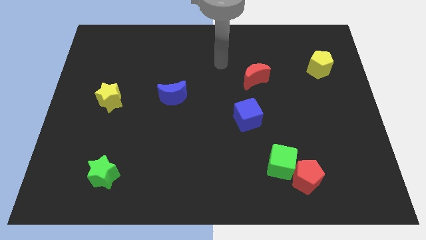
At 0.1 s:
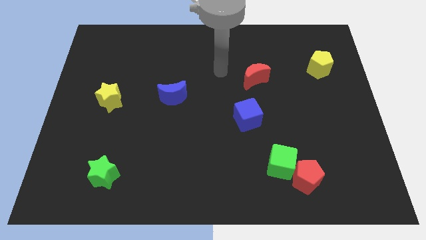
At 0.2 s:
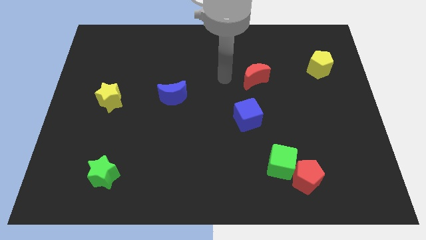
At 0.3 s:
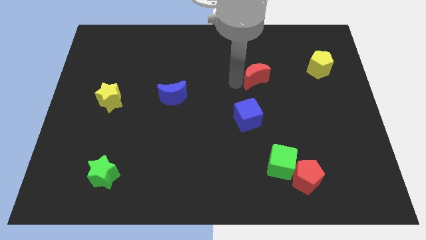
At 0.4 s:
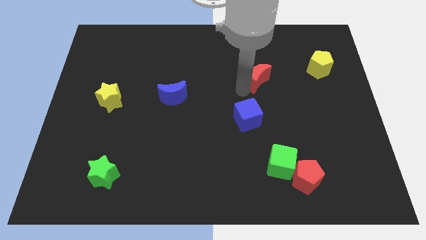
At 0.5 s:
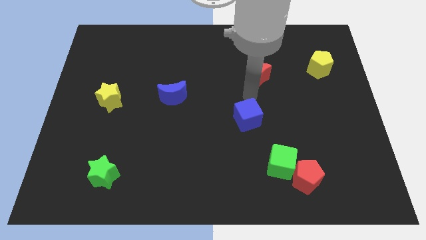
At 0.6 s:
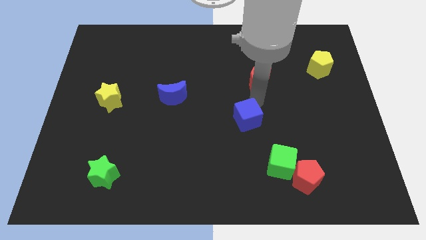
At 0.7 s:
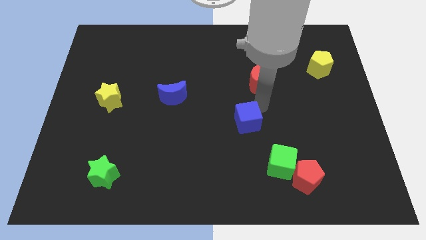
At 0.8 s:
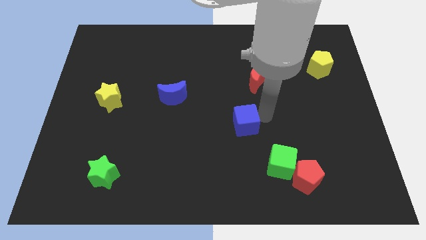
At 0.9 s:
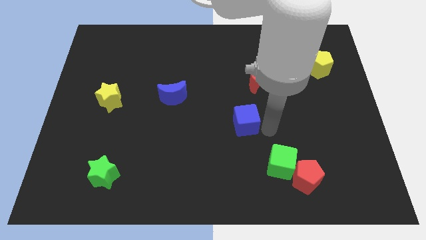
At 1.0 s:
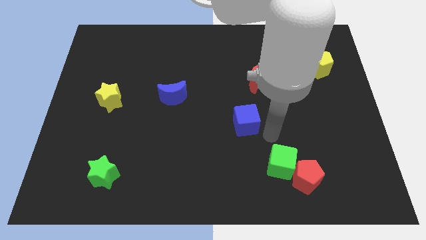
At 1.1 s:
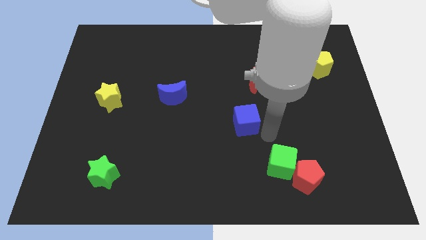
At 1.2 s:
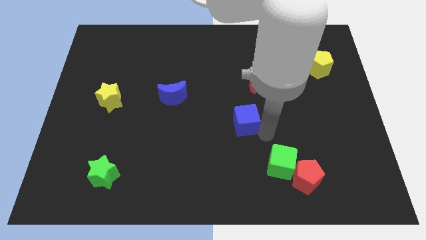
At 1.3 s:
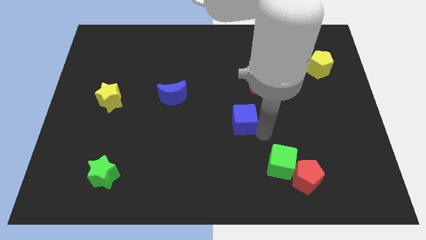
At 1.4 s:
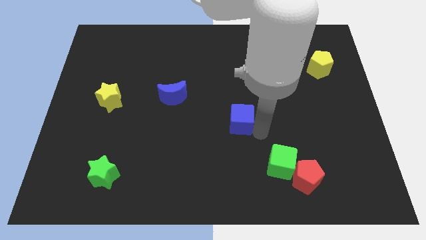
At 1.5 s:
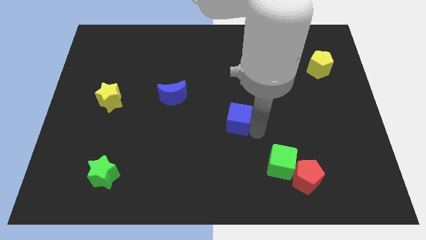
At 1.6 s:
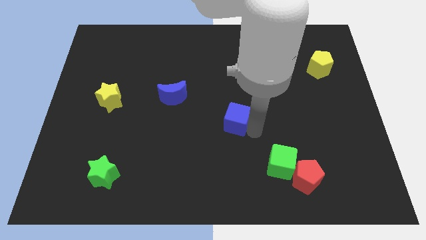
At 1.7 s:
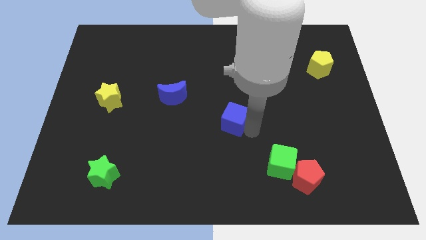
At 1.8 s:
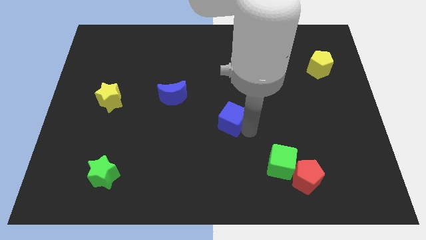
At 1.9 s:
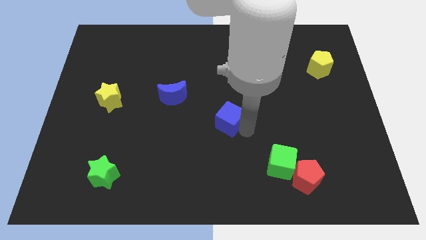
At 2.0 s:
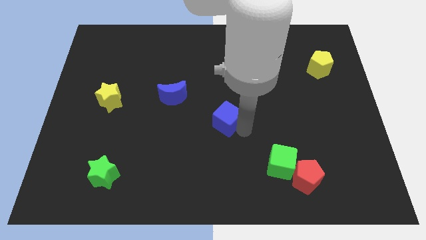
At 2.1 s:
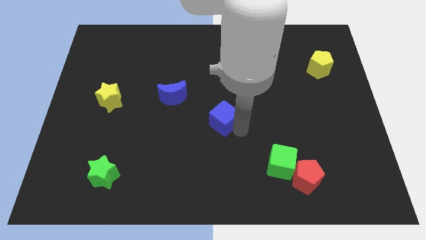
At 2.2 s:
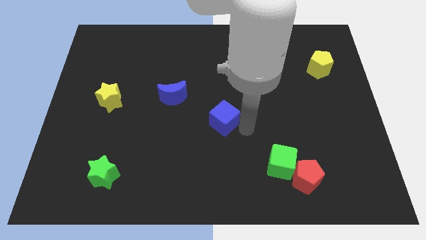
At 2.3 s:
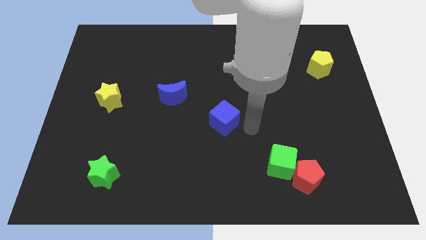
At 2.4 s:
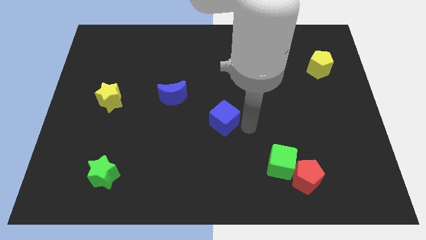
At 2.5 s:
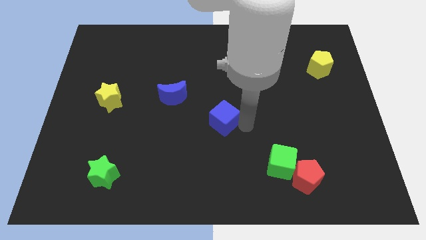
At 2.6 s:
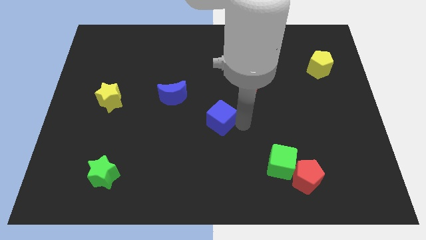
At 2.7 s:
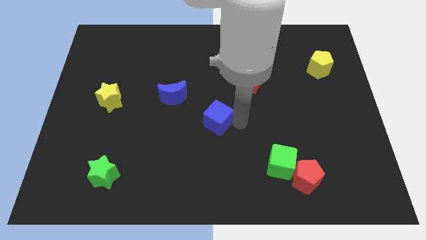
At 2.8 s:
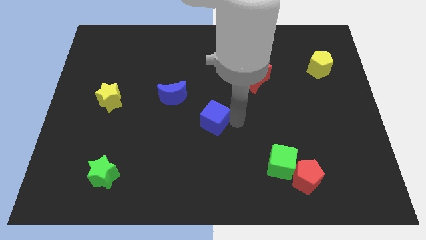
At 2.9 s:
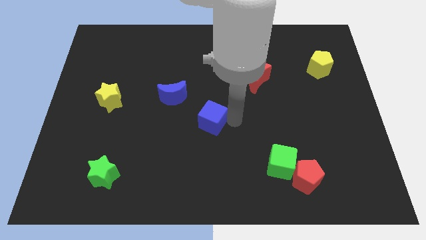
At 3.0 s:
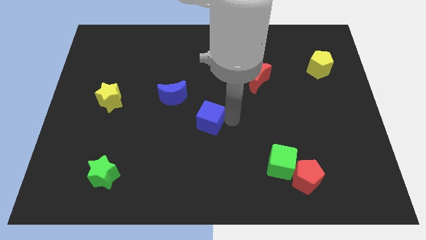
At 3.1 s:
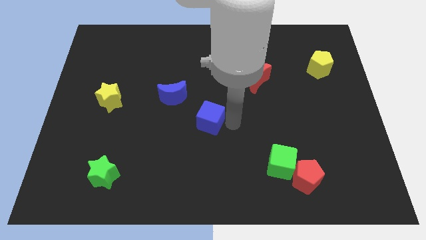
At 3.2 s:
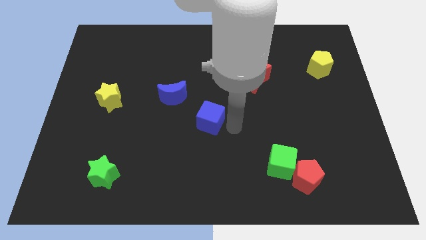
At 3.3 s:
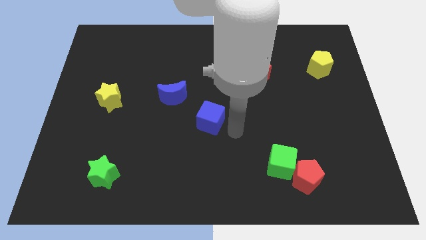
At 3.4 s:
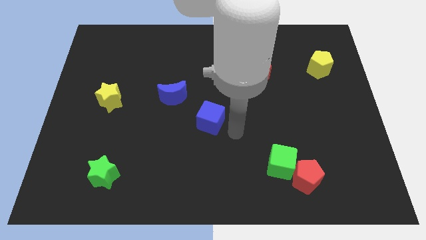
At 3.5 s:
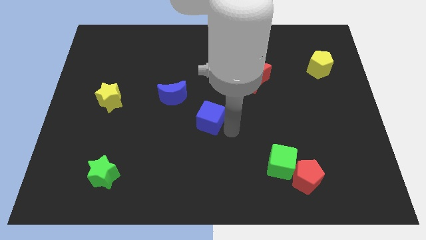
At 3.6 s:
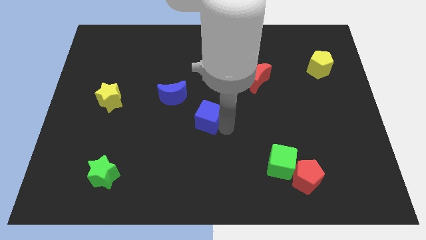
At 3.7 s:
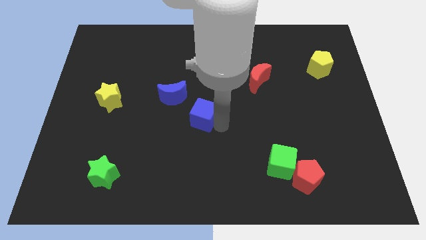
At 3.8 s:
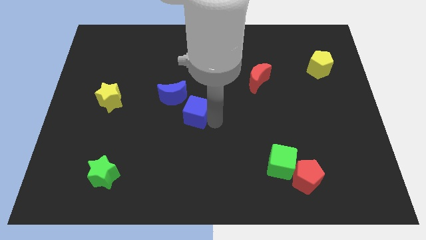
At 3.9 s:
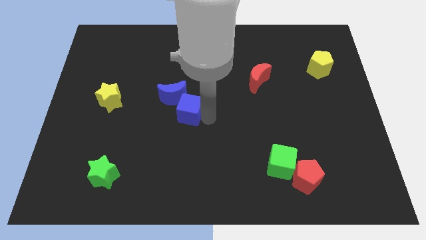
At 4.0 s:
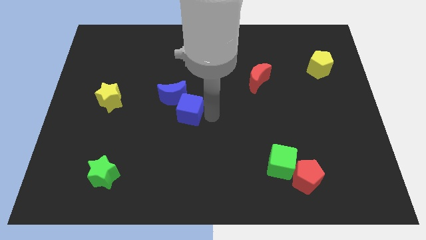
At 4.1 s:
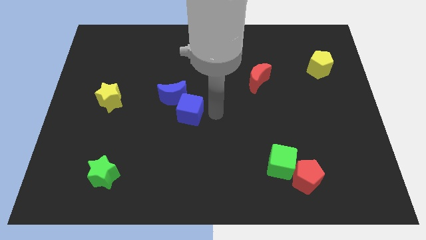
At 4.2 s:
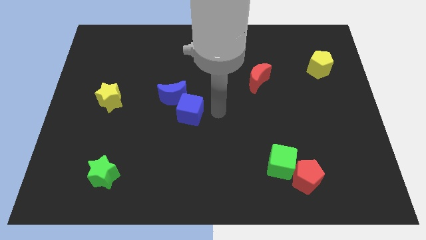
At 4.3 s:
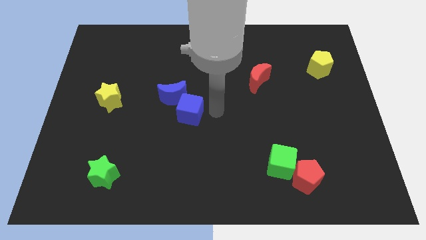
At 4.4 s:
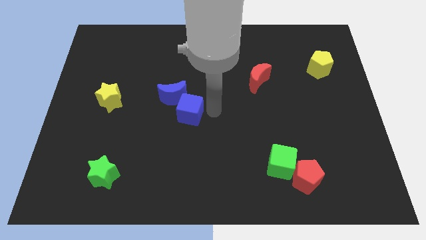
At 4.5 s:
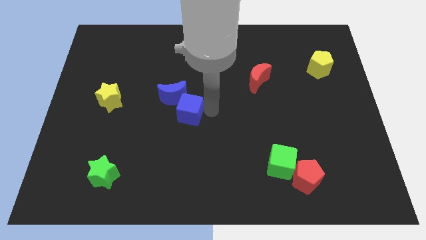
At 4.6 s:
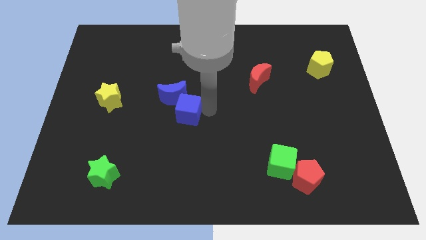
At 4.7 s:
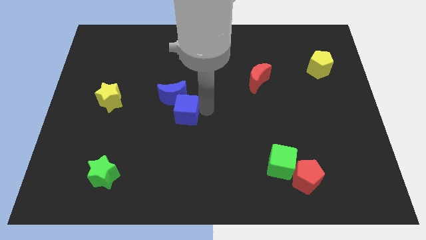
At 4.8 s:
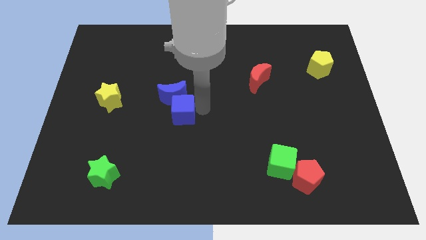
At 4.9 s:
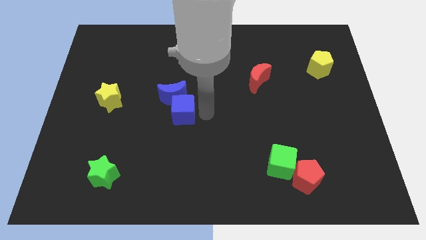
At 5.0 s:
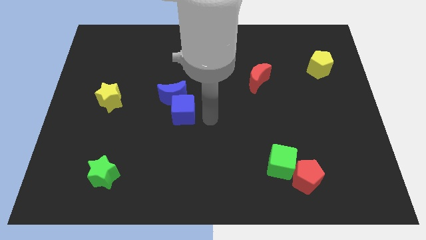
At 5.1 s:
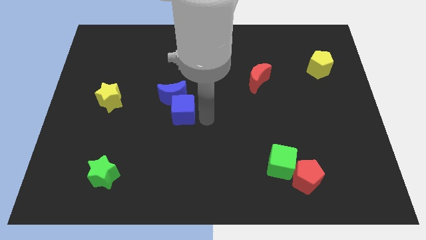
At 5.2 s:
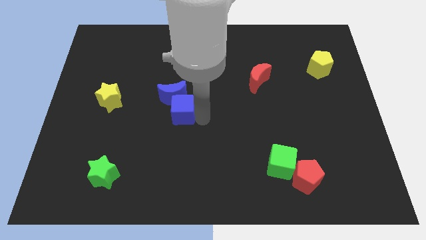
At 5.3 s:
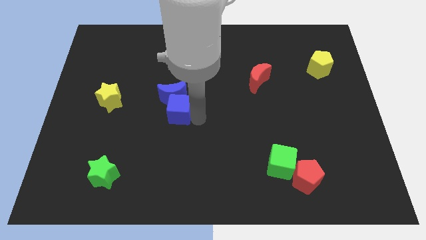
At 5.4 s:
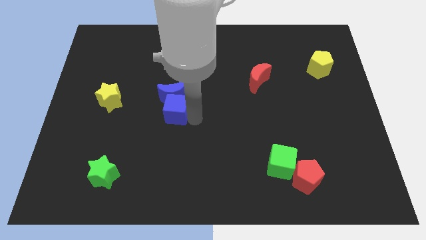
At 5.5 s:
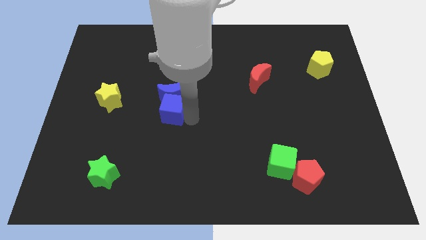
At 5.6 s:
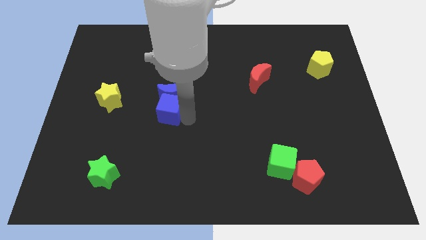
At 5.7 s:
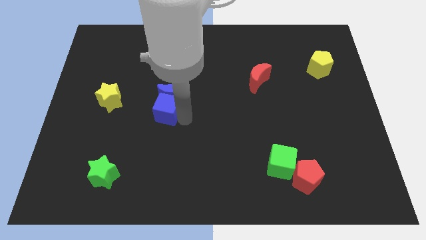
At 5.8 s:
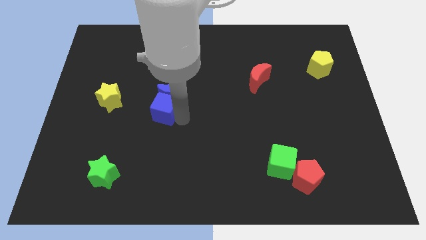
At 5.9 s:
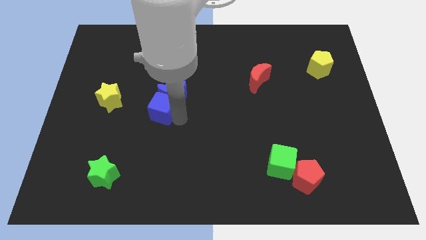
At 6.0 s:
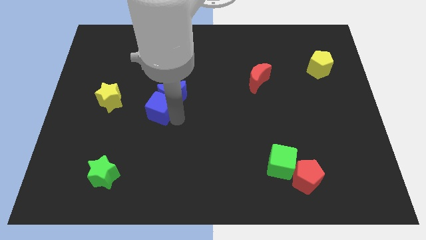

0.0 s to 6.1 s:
slide the blue cube to the left of the blue moon
